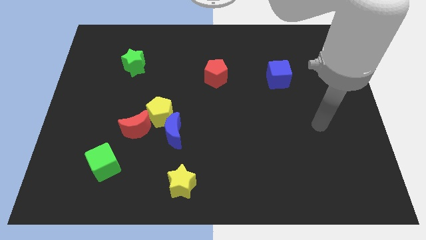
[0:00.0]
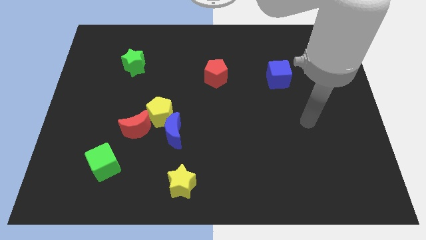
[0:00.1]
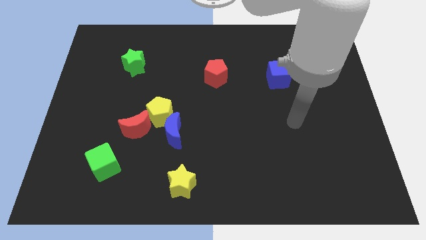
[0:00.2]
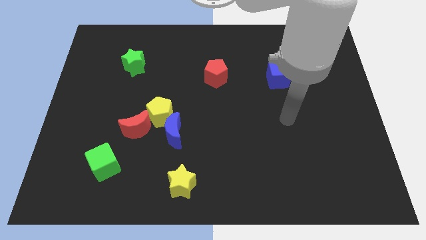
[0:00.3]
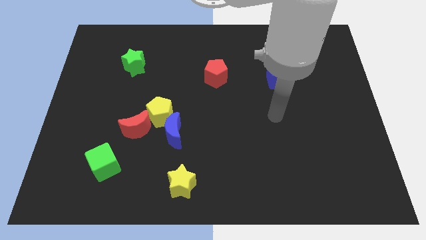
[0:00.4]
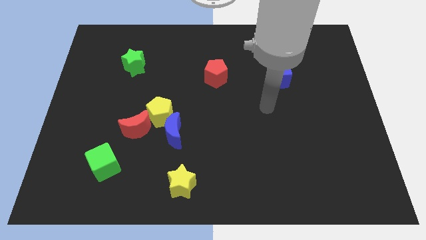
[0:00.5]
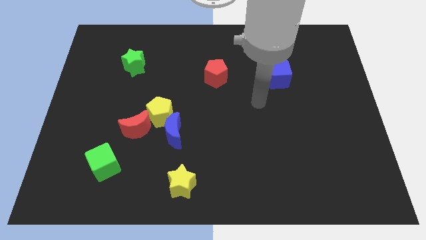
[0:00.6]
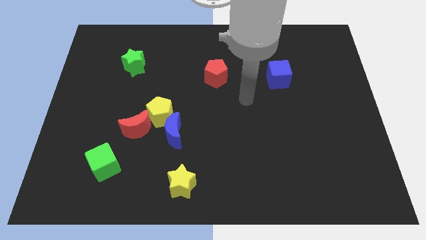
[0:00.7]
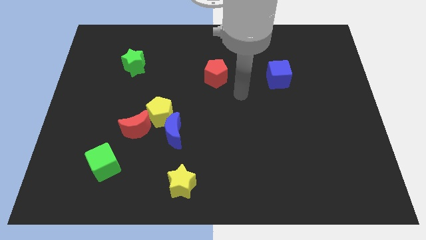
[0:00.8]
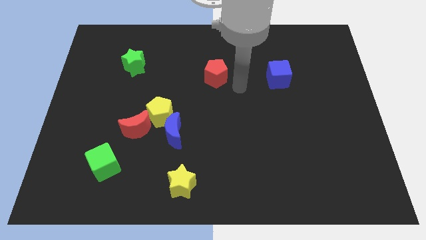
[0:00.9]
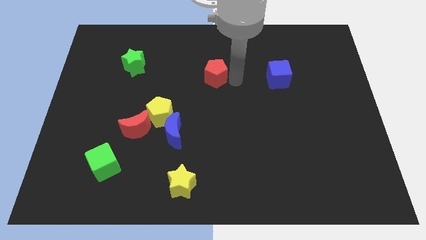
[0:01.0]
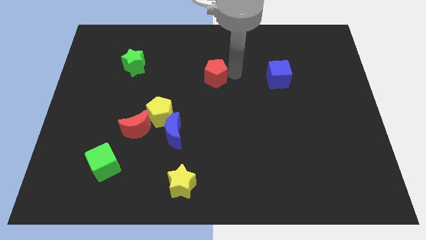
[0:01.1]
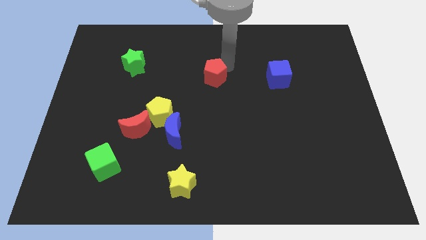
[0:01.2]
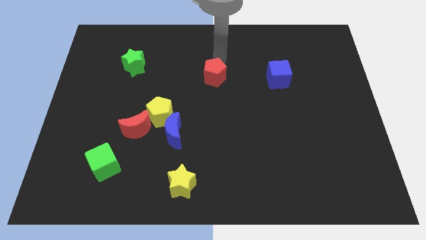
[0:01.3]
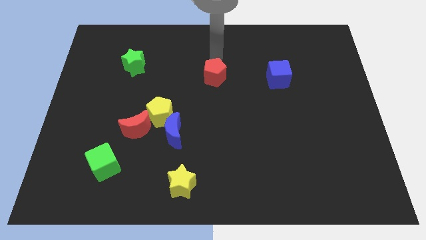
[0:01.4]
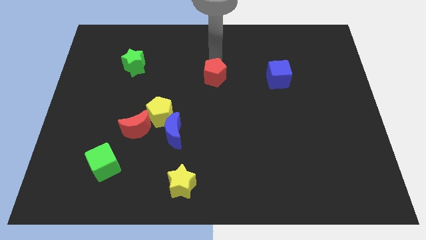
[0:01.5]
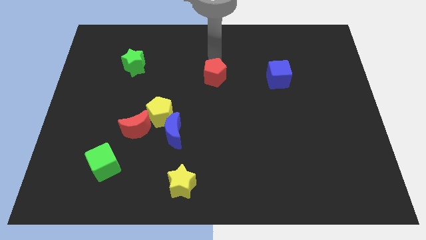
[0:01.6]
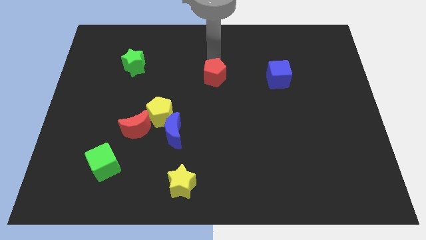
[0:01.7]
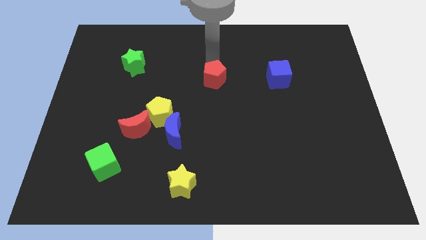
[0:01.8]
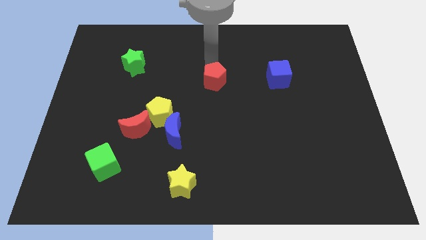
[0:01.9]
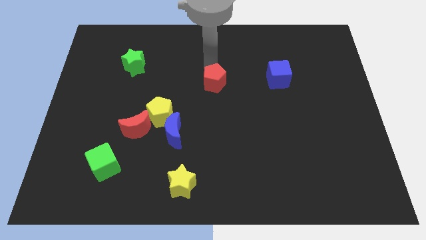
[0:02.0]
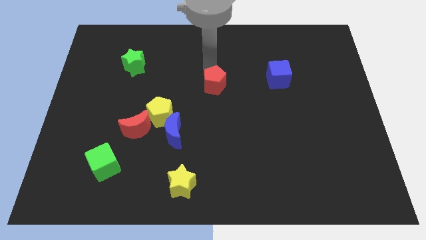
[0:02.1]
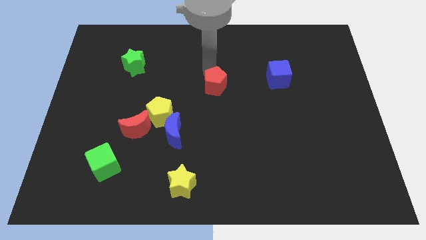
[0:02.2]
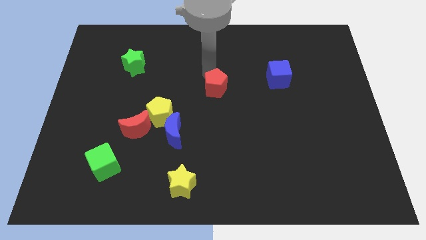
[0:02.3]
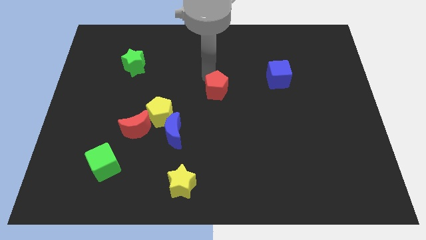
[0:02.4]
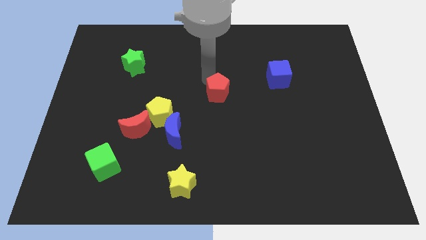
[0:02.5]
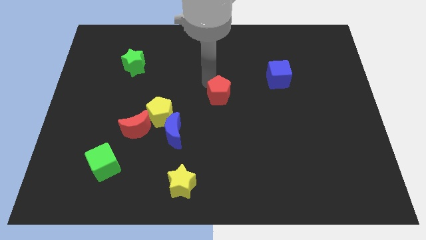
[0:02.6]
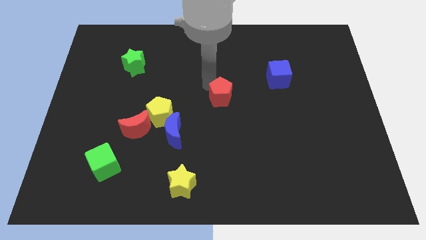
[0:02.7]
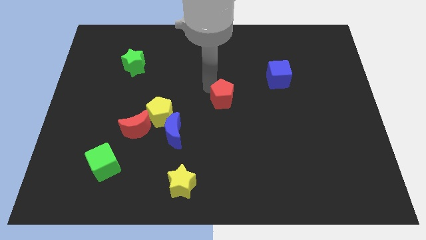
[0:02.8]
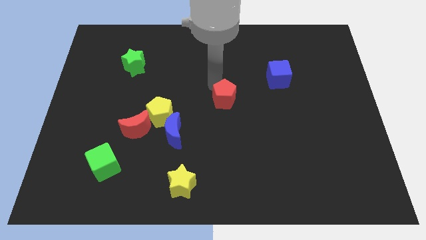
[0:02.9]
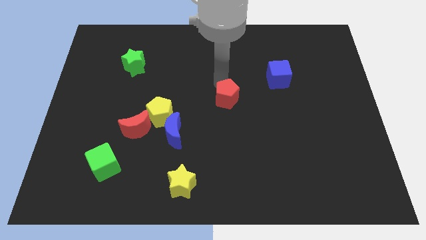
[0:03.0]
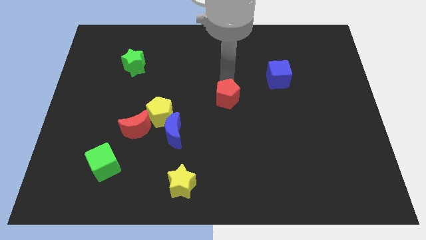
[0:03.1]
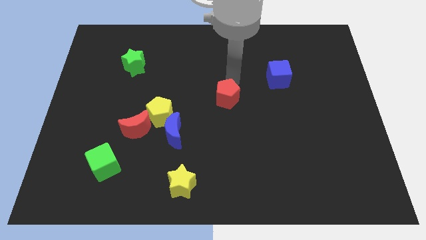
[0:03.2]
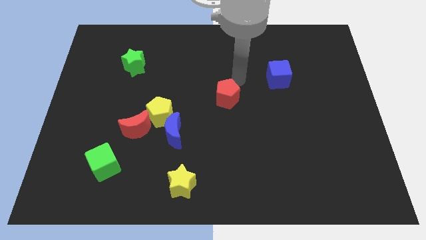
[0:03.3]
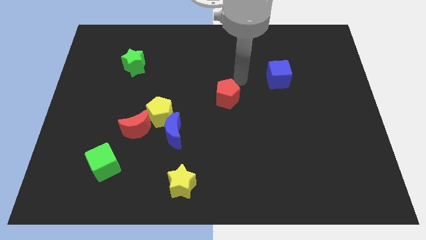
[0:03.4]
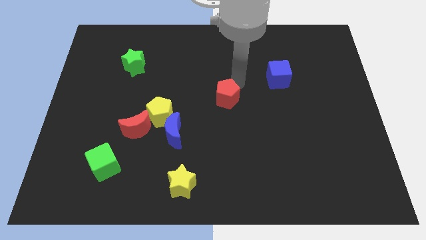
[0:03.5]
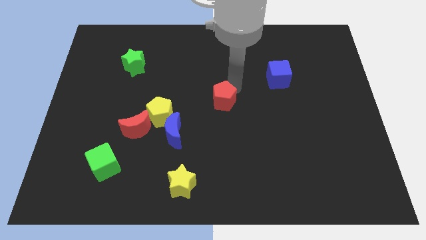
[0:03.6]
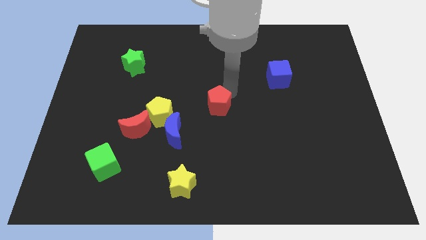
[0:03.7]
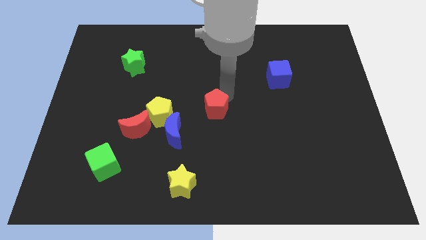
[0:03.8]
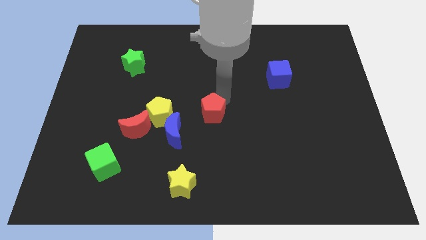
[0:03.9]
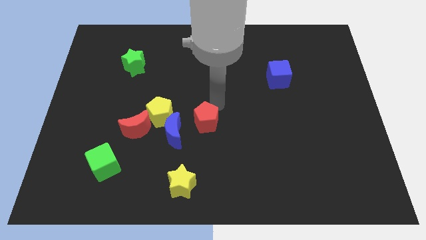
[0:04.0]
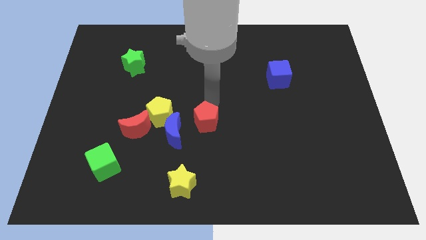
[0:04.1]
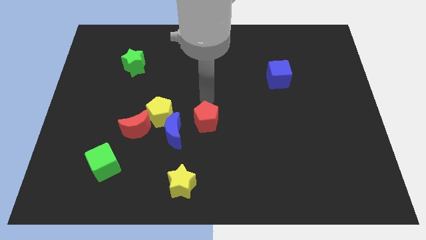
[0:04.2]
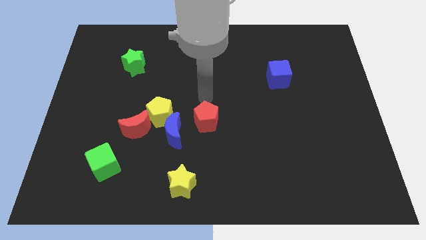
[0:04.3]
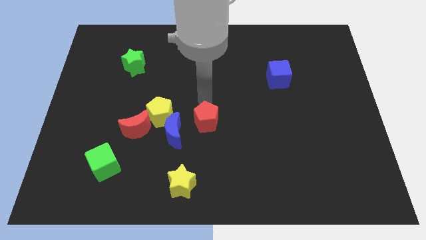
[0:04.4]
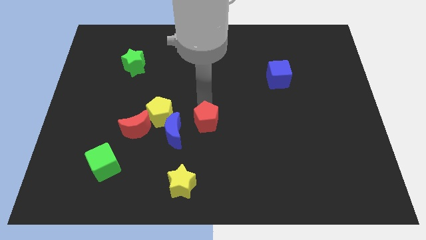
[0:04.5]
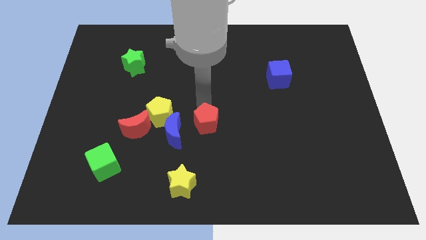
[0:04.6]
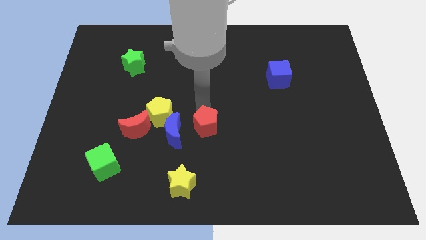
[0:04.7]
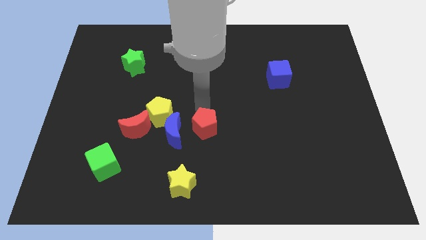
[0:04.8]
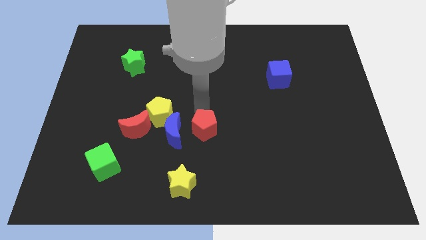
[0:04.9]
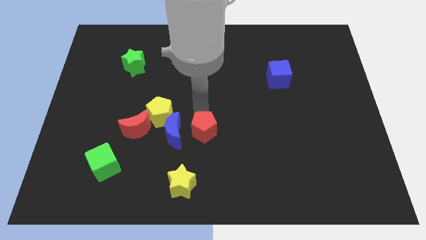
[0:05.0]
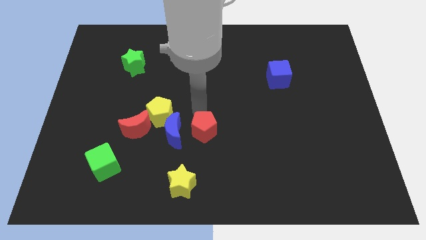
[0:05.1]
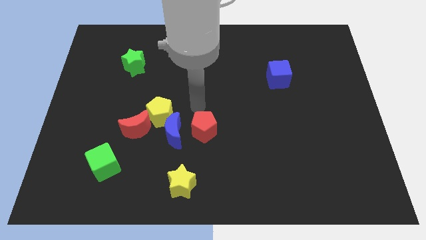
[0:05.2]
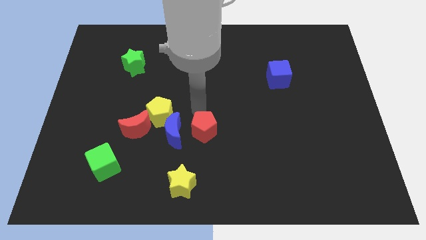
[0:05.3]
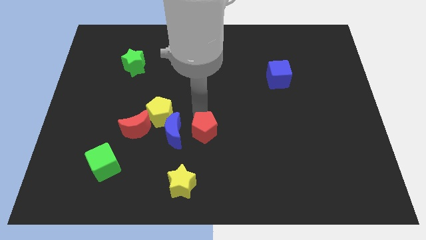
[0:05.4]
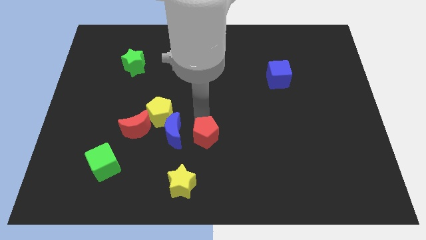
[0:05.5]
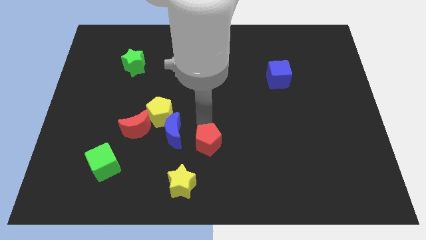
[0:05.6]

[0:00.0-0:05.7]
push the red pentagon to the top right side of the yellow star

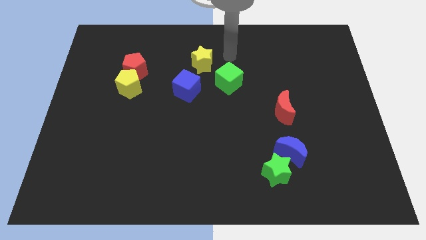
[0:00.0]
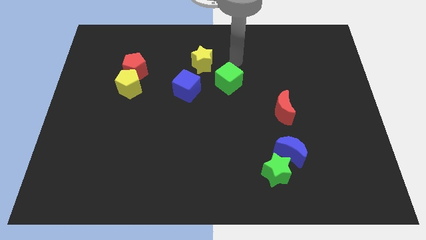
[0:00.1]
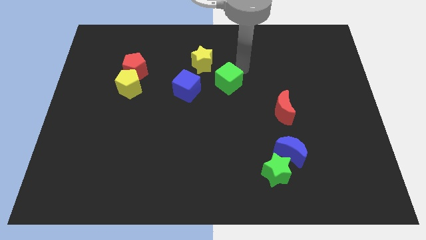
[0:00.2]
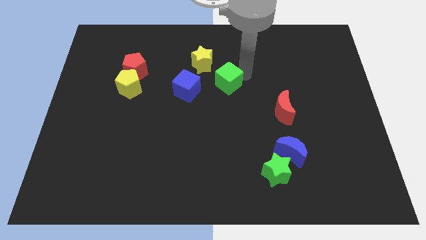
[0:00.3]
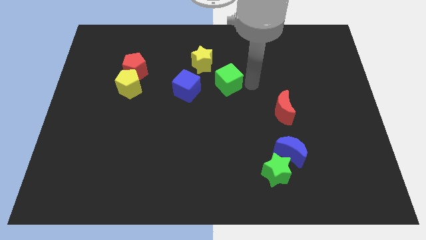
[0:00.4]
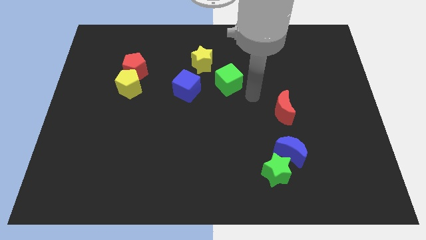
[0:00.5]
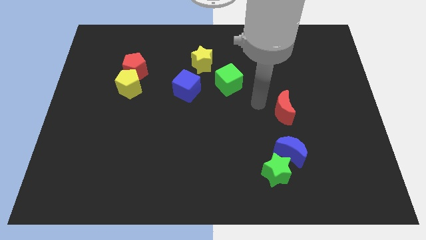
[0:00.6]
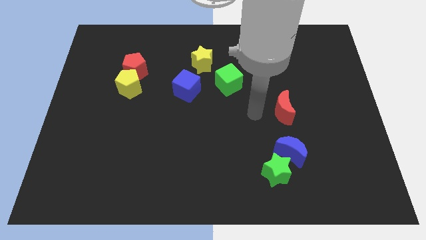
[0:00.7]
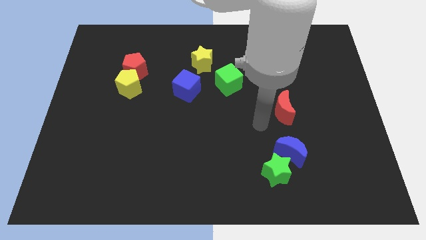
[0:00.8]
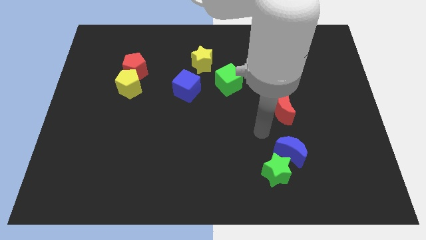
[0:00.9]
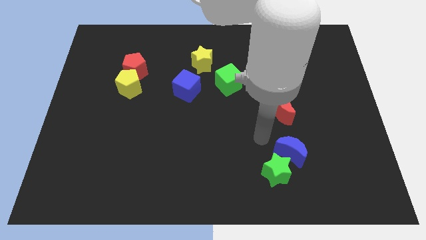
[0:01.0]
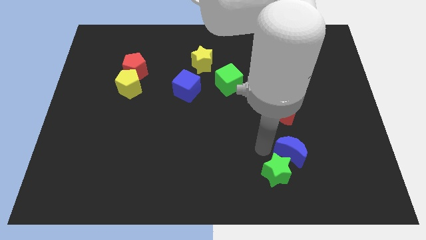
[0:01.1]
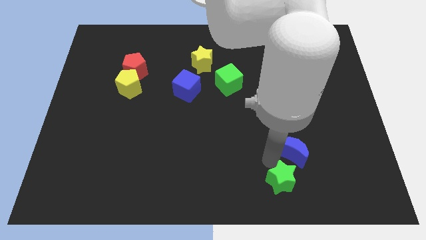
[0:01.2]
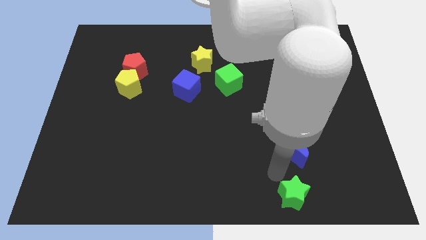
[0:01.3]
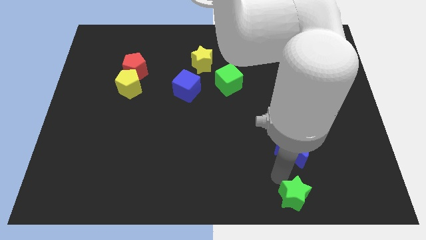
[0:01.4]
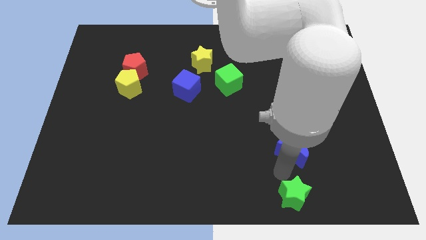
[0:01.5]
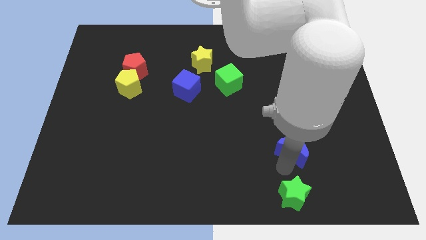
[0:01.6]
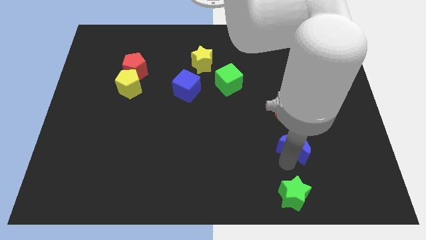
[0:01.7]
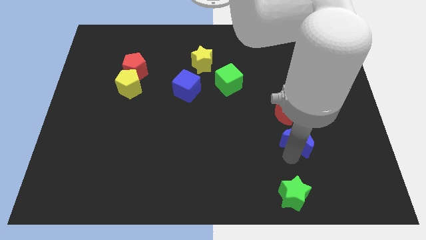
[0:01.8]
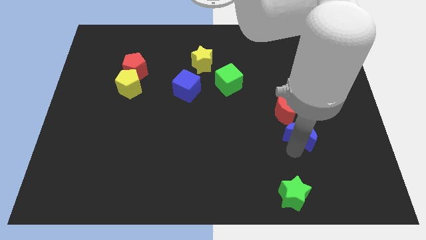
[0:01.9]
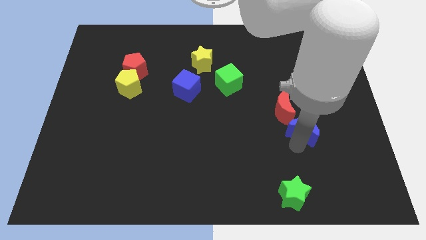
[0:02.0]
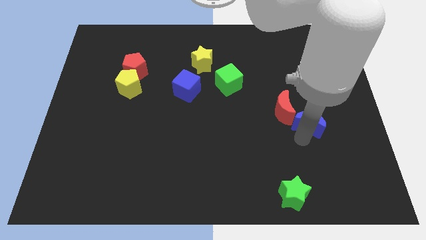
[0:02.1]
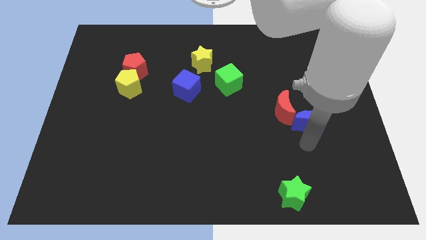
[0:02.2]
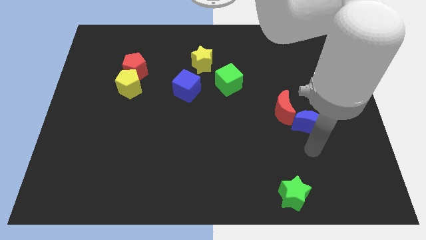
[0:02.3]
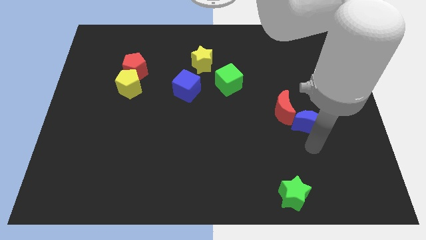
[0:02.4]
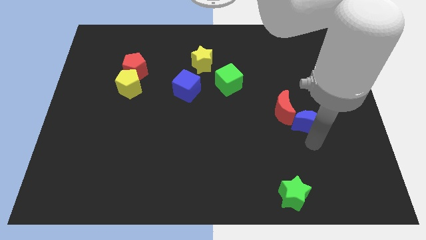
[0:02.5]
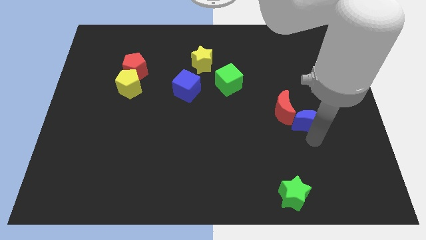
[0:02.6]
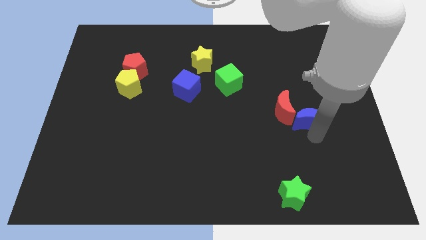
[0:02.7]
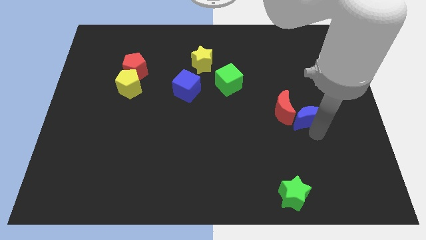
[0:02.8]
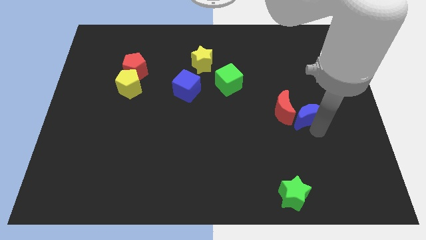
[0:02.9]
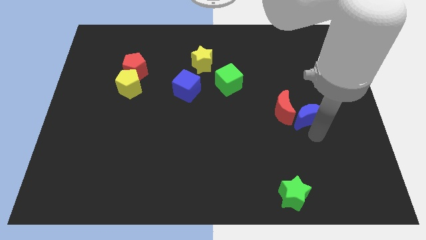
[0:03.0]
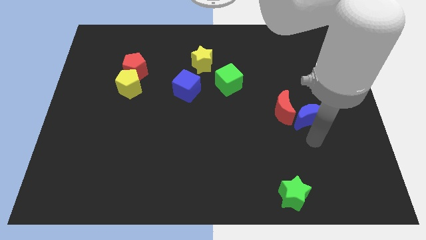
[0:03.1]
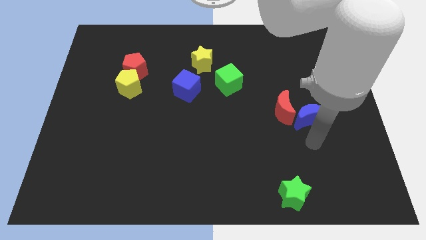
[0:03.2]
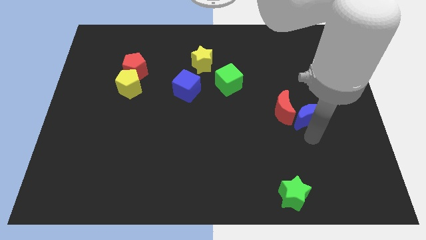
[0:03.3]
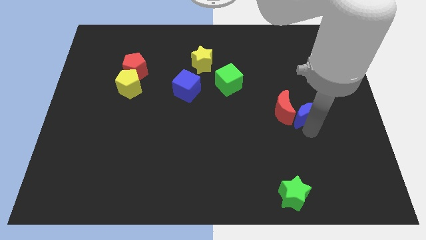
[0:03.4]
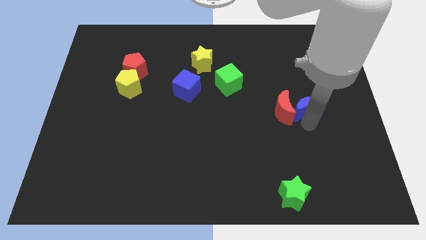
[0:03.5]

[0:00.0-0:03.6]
move the blue moon diagonally up and to the right of the red moon
